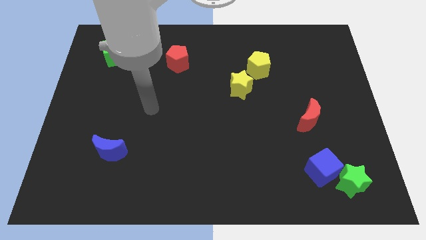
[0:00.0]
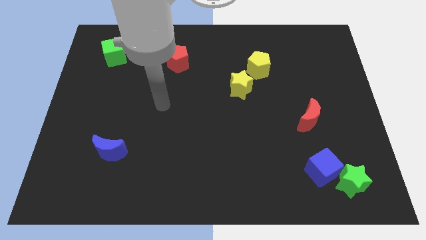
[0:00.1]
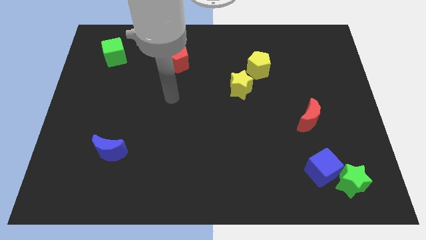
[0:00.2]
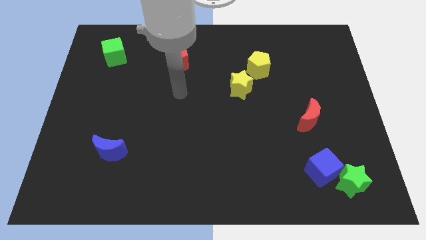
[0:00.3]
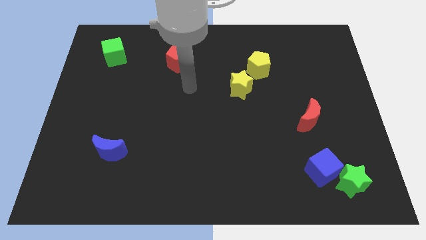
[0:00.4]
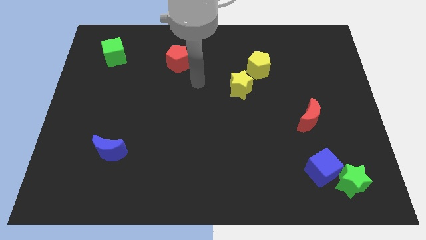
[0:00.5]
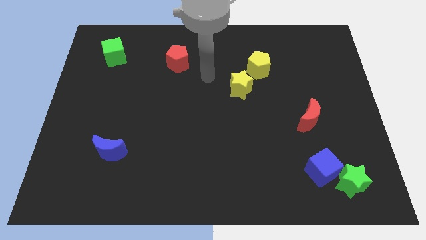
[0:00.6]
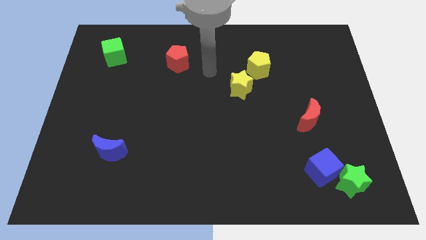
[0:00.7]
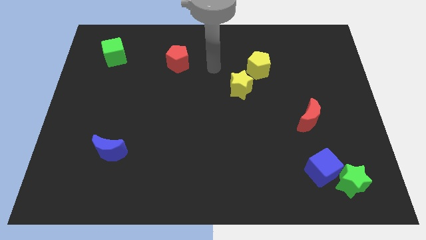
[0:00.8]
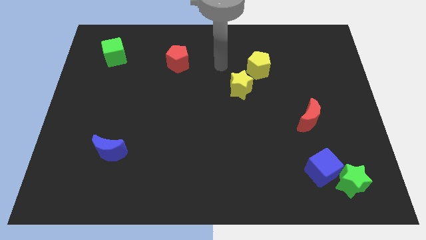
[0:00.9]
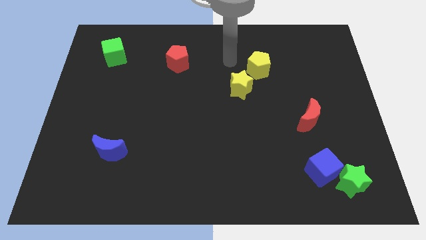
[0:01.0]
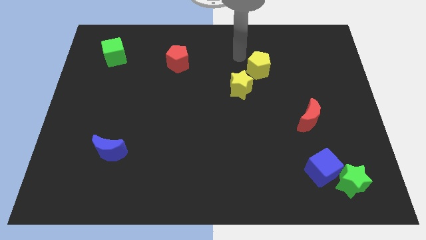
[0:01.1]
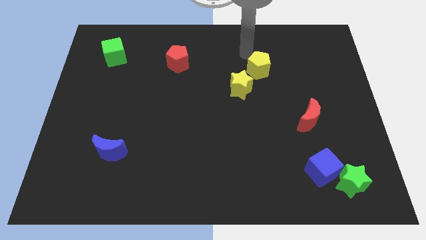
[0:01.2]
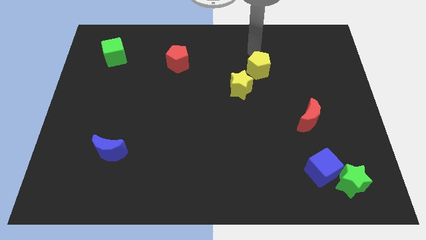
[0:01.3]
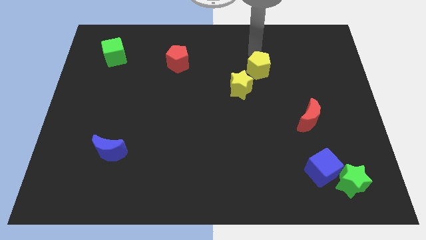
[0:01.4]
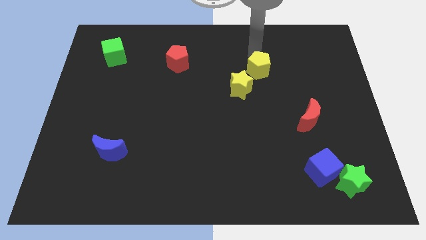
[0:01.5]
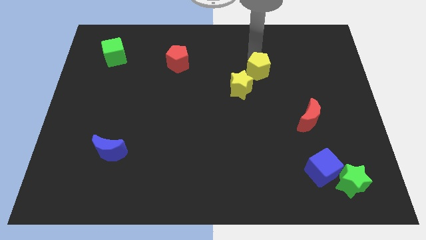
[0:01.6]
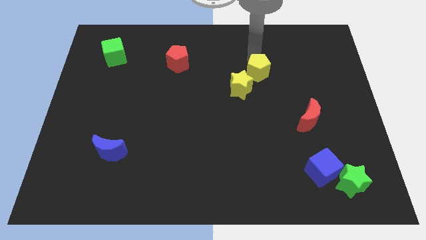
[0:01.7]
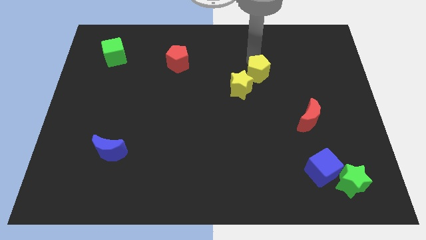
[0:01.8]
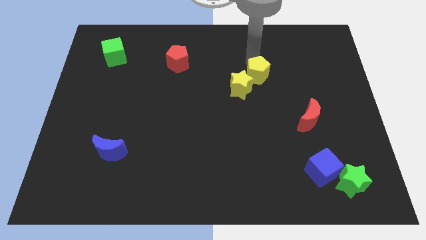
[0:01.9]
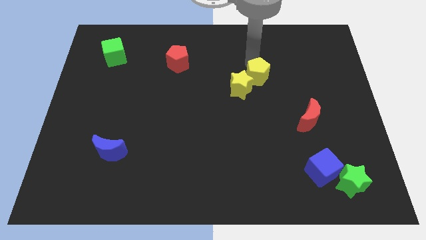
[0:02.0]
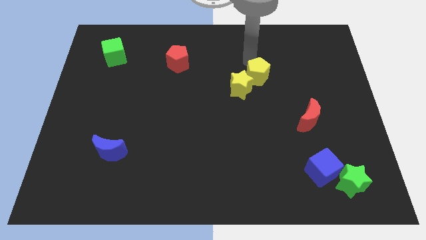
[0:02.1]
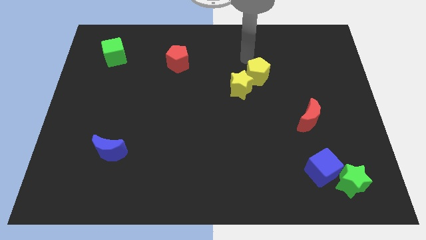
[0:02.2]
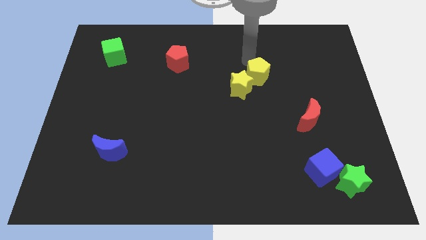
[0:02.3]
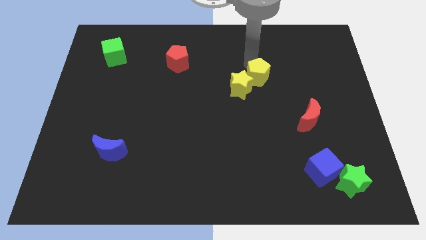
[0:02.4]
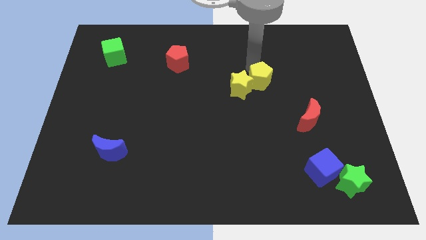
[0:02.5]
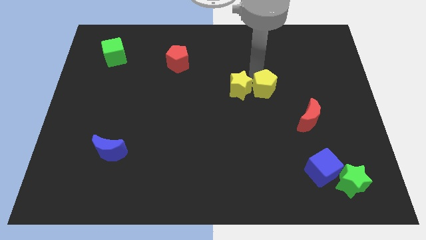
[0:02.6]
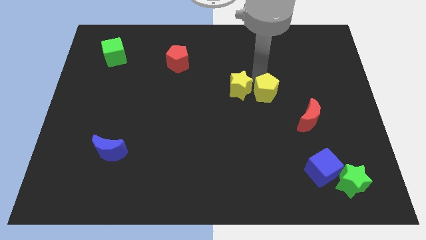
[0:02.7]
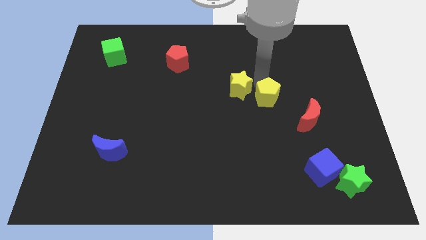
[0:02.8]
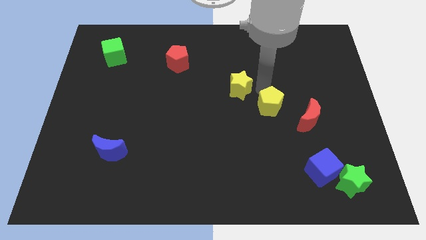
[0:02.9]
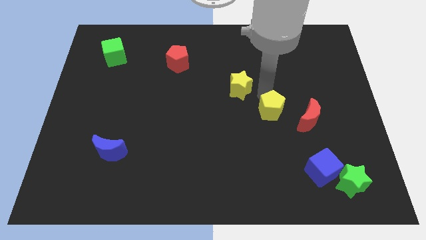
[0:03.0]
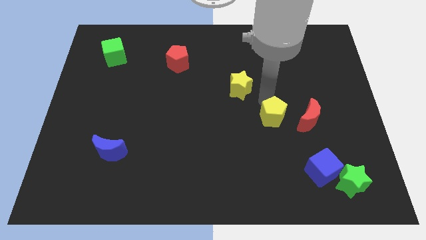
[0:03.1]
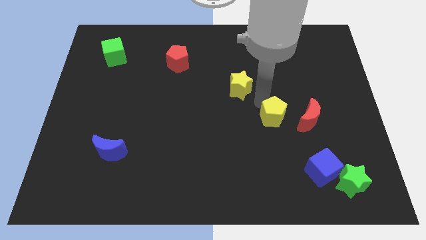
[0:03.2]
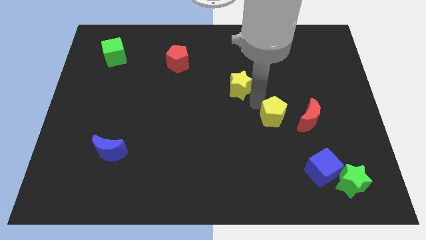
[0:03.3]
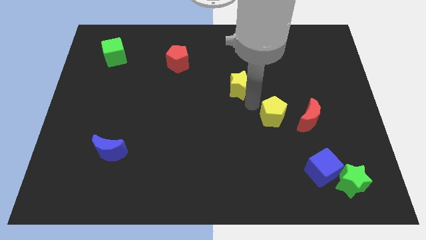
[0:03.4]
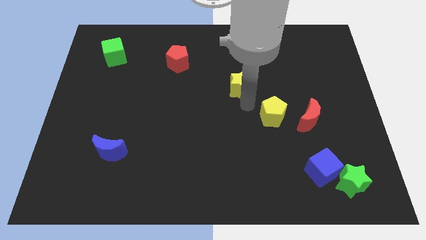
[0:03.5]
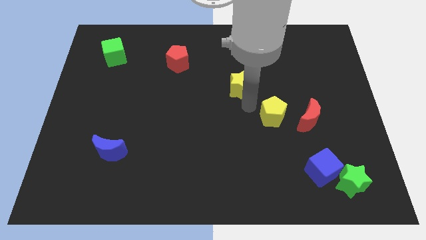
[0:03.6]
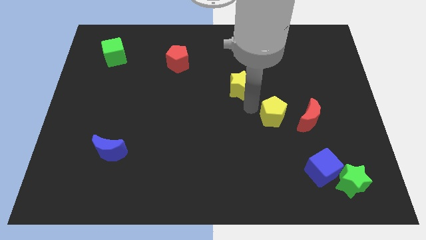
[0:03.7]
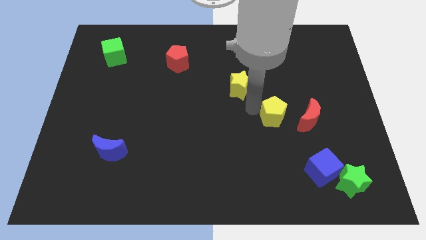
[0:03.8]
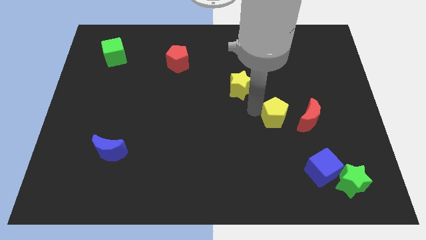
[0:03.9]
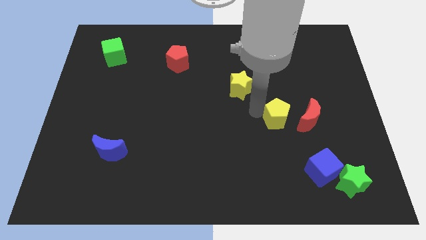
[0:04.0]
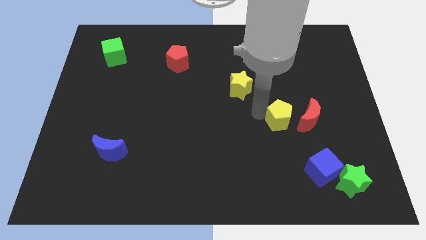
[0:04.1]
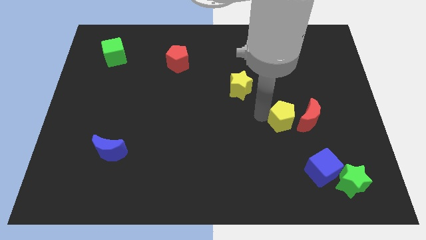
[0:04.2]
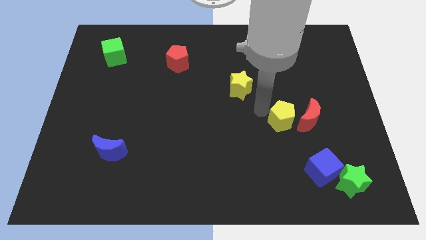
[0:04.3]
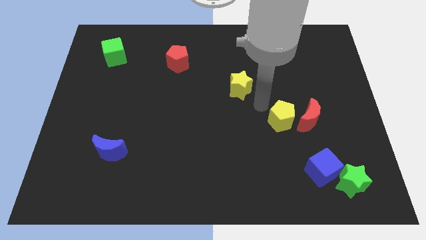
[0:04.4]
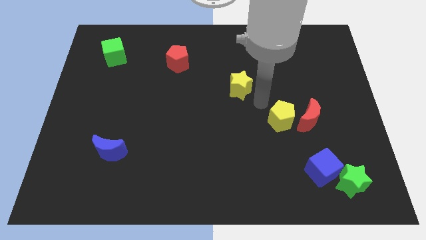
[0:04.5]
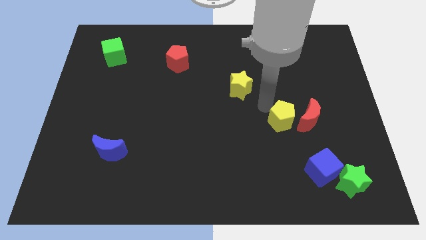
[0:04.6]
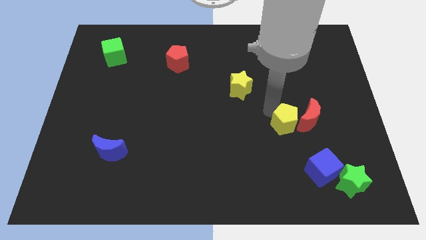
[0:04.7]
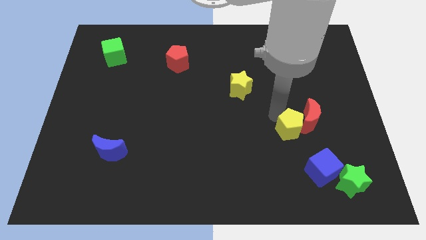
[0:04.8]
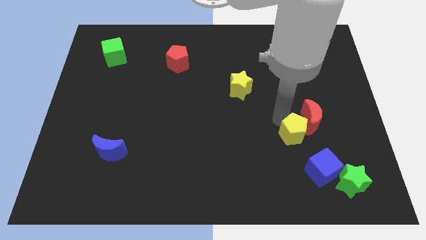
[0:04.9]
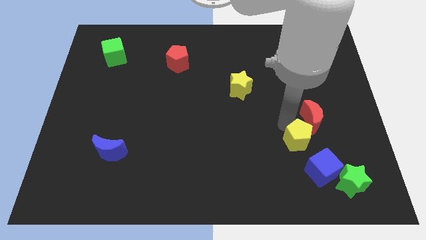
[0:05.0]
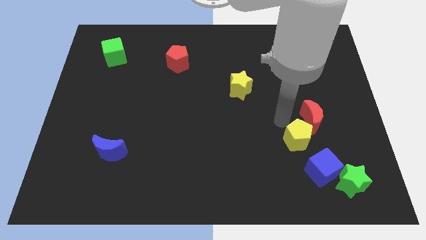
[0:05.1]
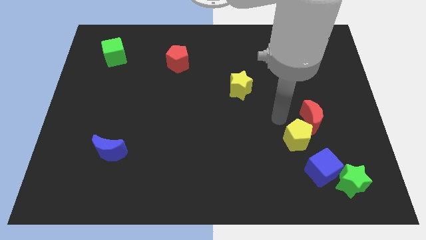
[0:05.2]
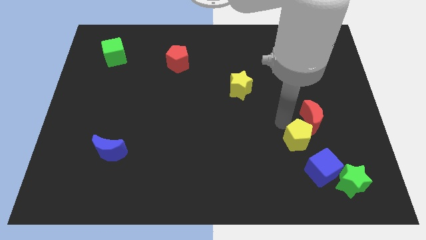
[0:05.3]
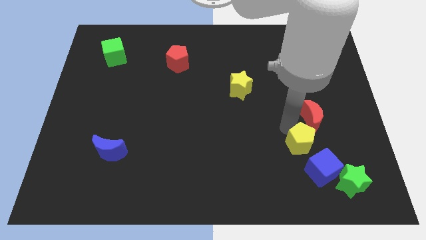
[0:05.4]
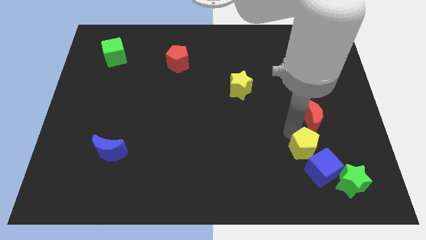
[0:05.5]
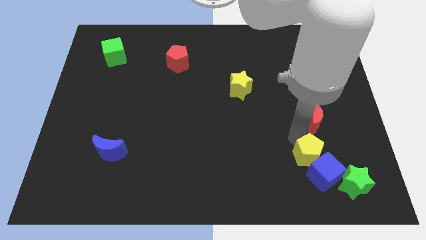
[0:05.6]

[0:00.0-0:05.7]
put the yellow pentagon towards the blue cube

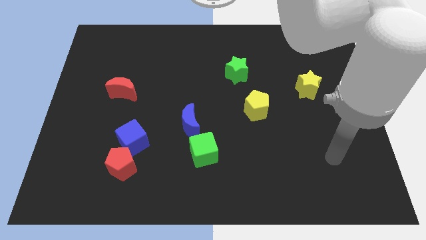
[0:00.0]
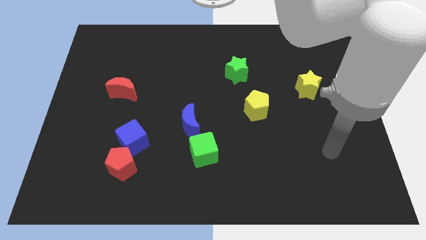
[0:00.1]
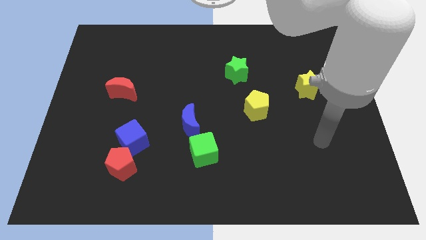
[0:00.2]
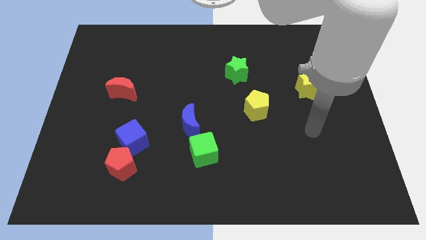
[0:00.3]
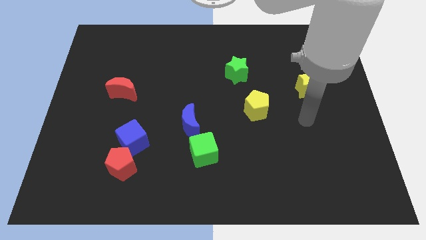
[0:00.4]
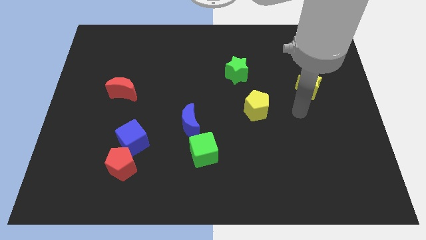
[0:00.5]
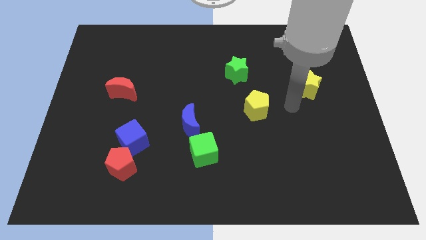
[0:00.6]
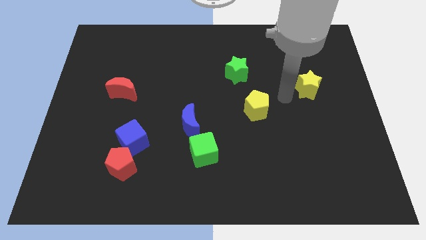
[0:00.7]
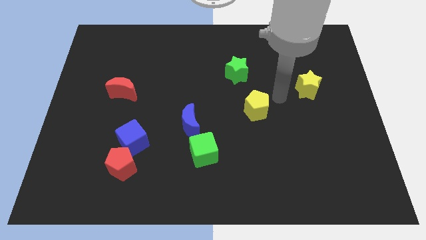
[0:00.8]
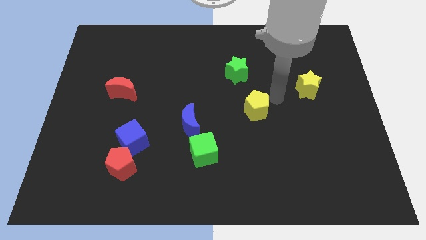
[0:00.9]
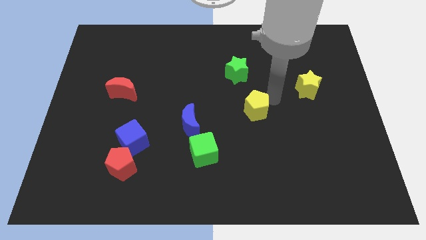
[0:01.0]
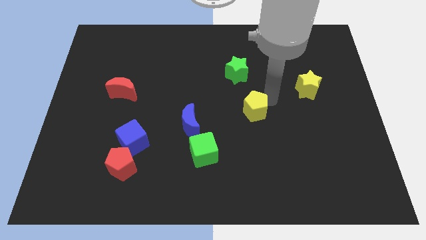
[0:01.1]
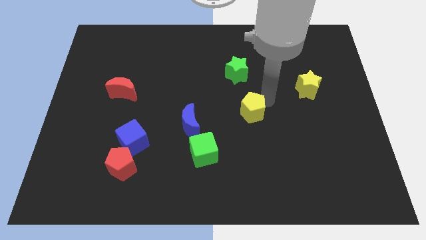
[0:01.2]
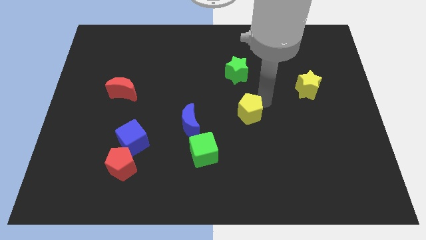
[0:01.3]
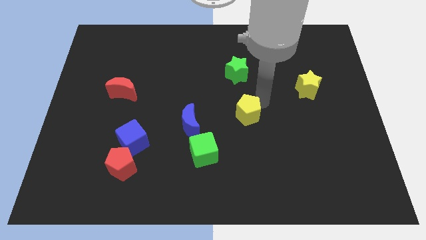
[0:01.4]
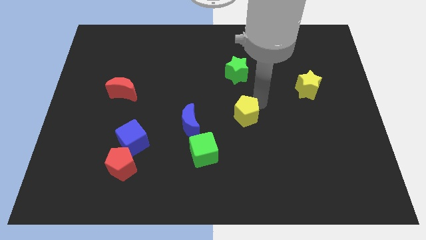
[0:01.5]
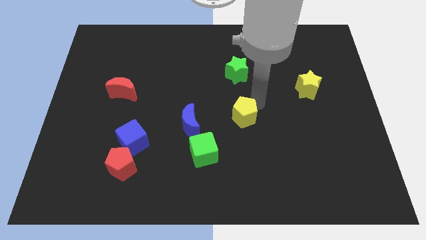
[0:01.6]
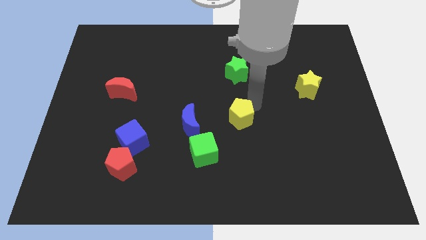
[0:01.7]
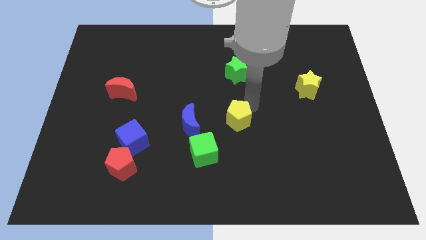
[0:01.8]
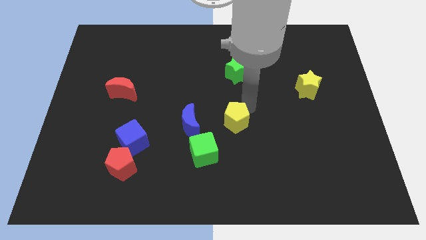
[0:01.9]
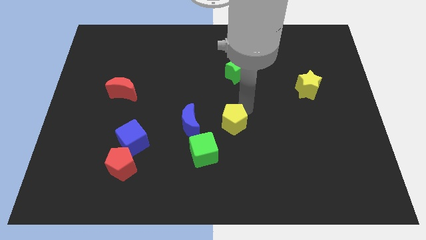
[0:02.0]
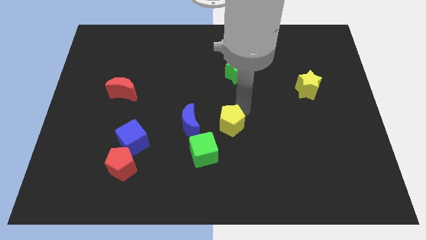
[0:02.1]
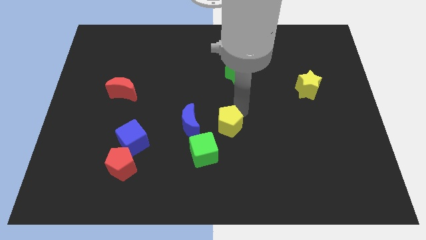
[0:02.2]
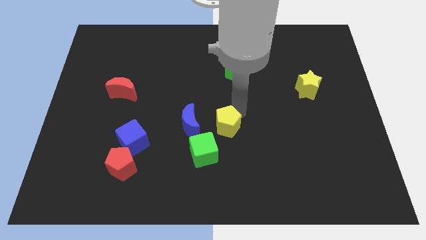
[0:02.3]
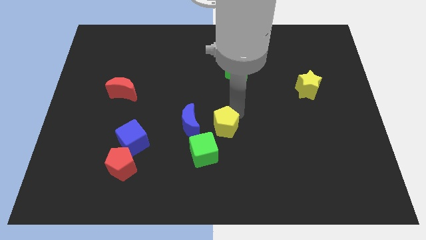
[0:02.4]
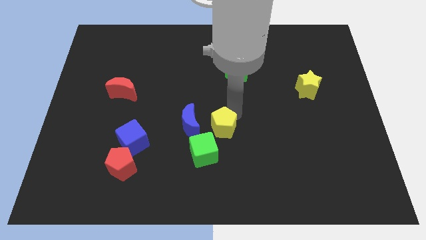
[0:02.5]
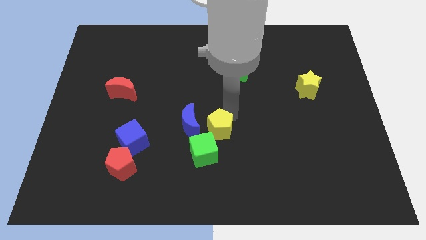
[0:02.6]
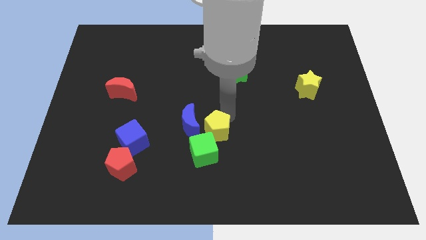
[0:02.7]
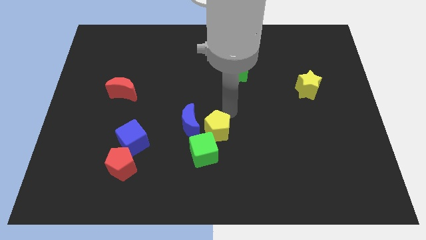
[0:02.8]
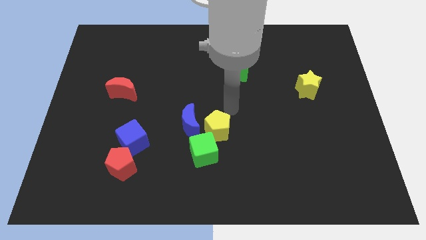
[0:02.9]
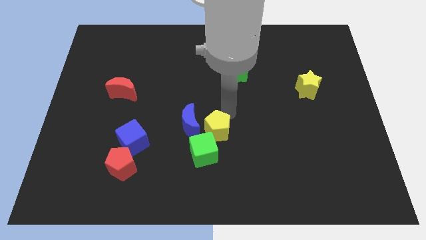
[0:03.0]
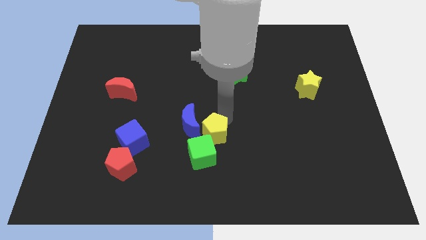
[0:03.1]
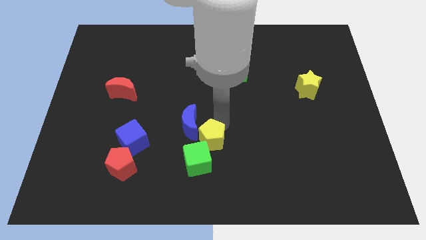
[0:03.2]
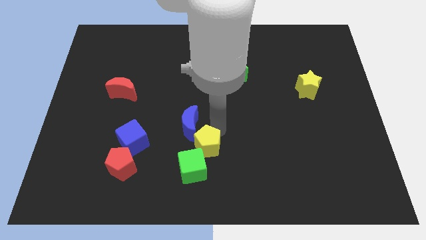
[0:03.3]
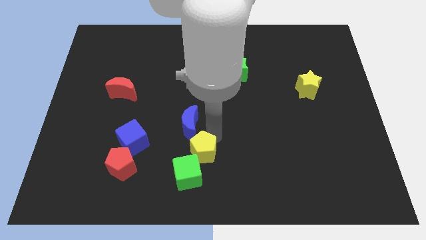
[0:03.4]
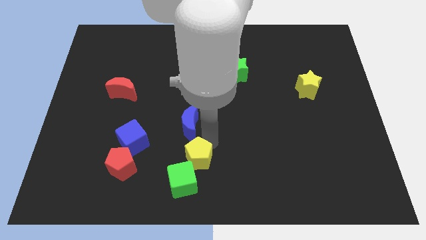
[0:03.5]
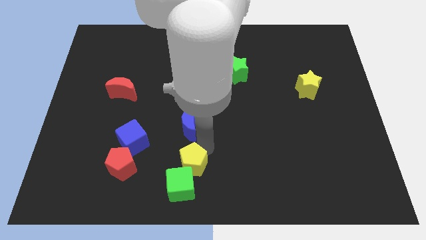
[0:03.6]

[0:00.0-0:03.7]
put the yellow pentagon next to the green cube
